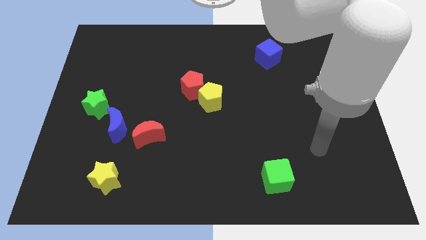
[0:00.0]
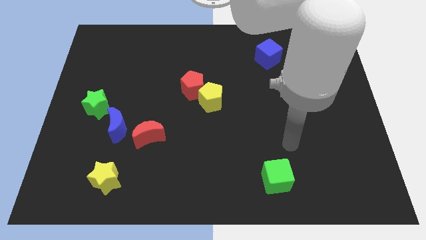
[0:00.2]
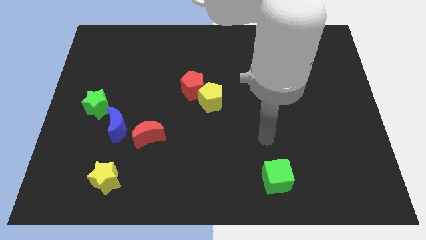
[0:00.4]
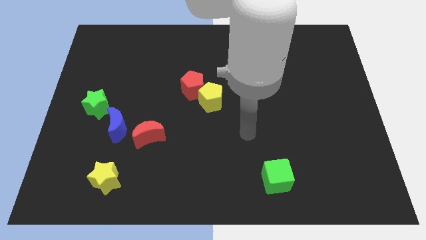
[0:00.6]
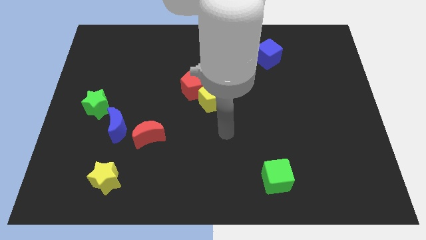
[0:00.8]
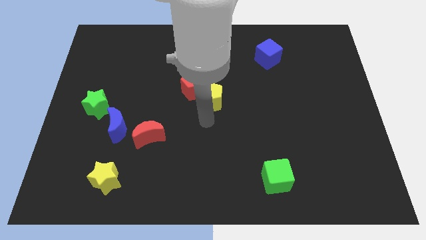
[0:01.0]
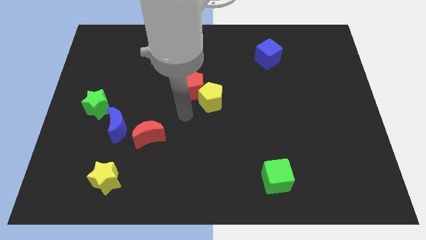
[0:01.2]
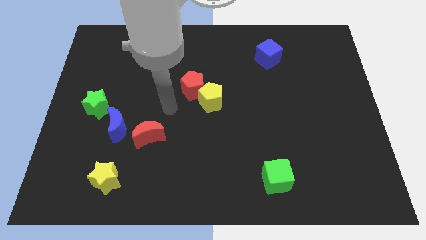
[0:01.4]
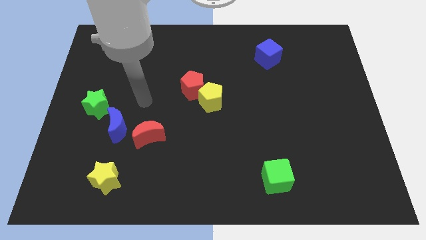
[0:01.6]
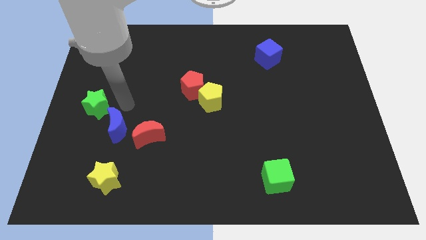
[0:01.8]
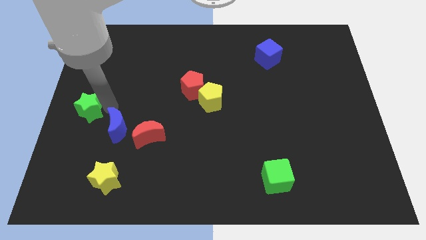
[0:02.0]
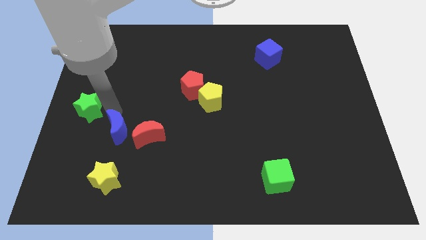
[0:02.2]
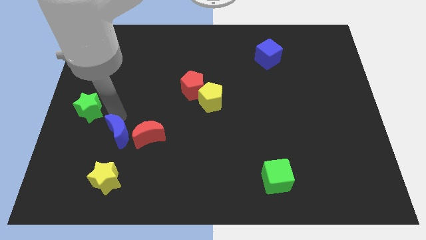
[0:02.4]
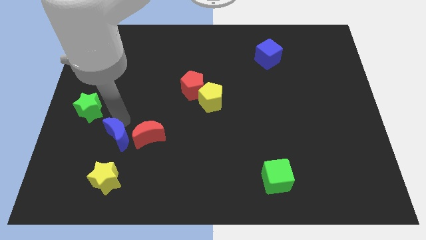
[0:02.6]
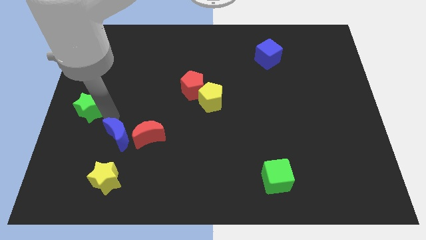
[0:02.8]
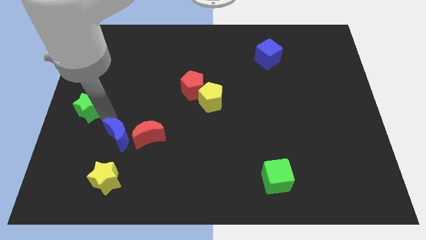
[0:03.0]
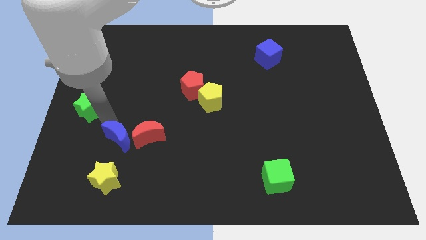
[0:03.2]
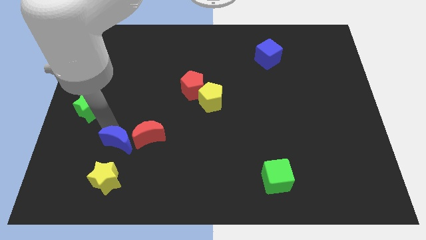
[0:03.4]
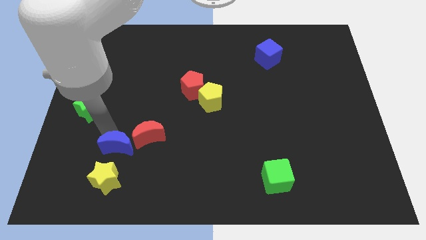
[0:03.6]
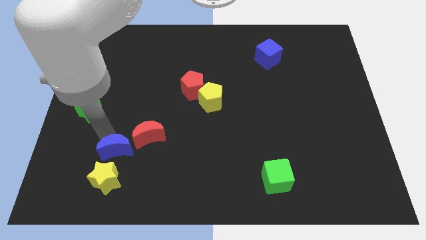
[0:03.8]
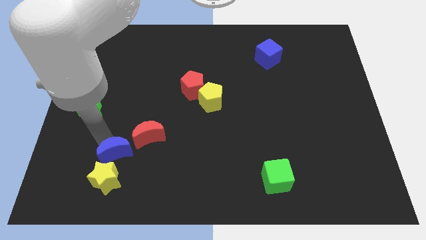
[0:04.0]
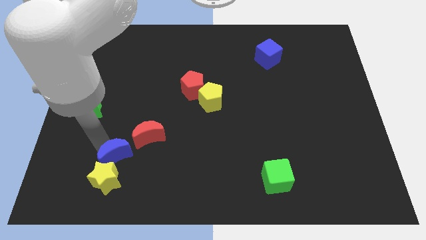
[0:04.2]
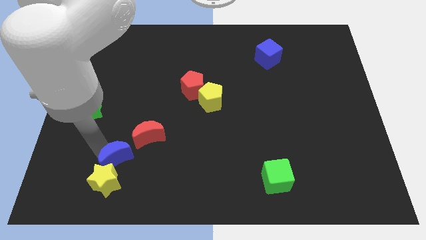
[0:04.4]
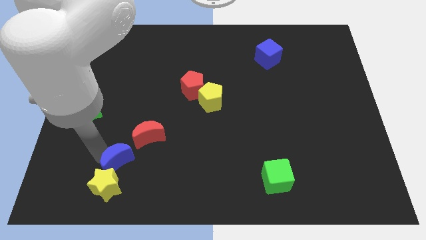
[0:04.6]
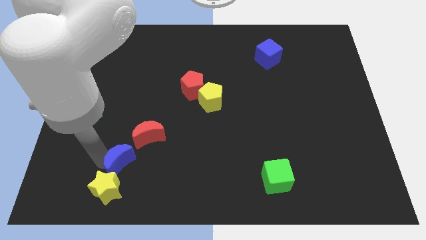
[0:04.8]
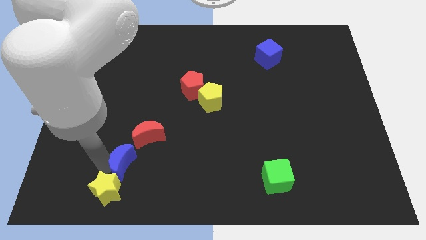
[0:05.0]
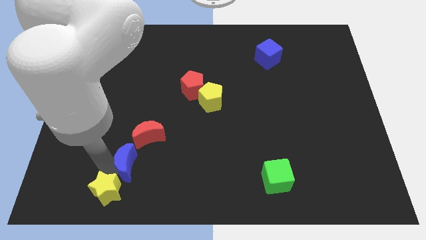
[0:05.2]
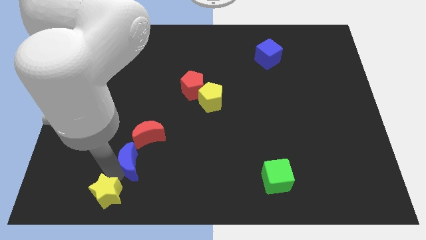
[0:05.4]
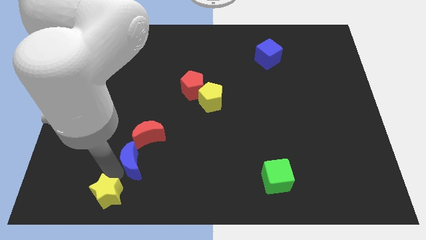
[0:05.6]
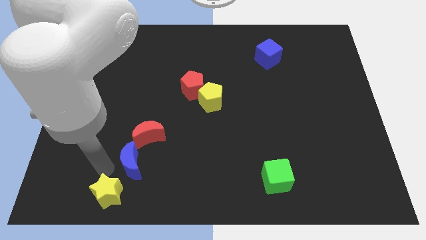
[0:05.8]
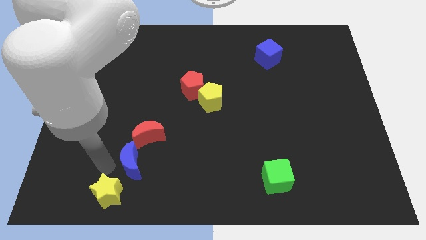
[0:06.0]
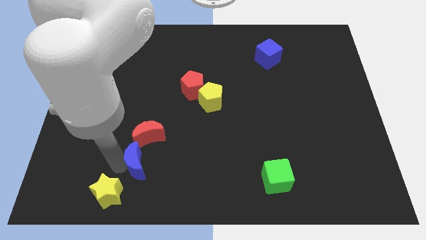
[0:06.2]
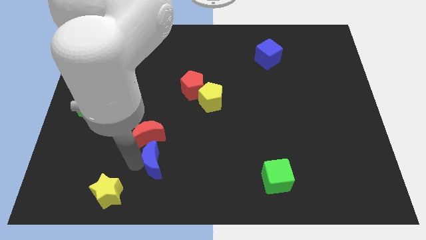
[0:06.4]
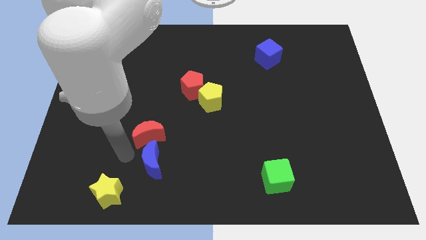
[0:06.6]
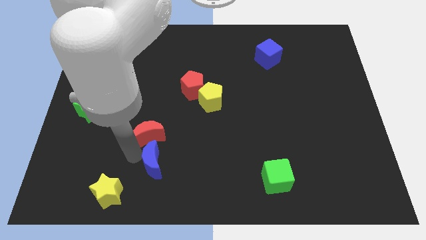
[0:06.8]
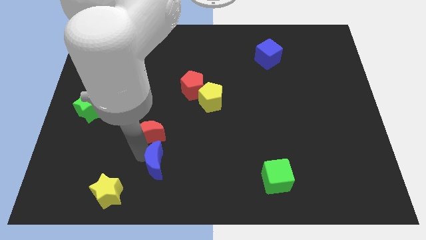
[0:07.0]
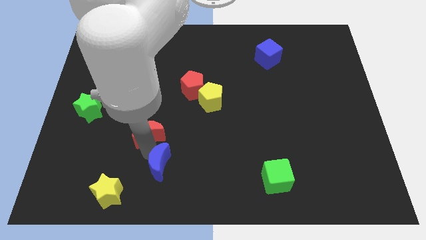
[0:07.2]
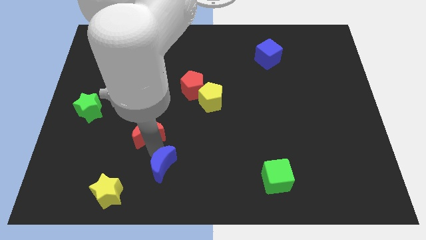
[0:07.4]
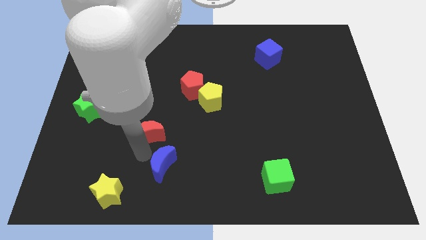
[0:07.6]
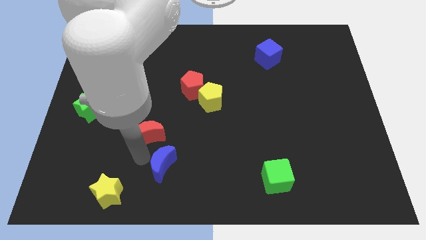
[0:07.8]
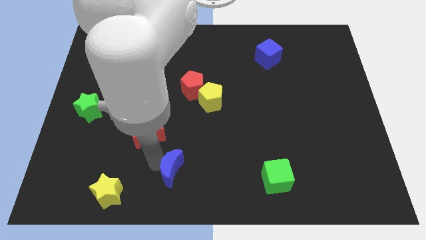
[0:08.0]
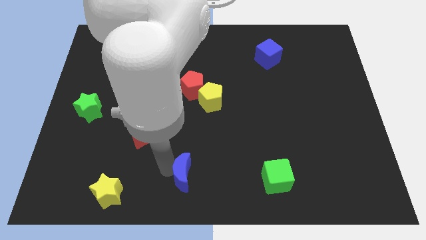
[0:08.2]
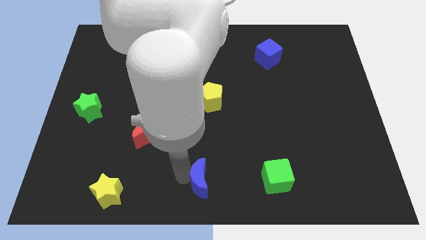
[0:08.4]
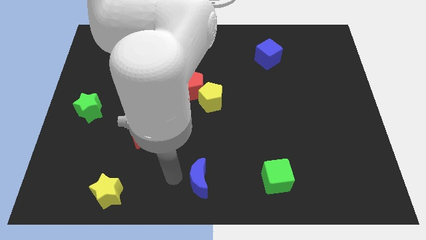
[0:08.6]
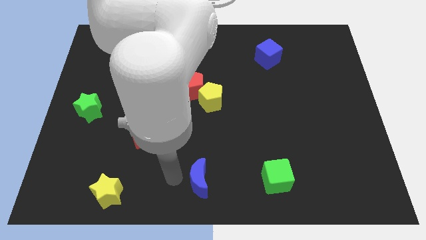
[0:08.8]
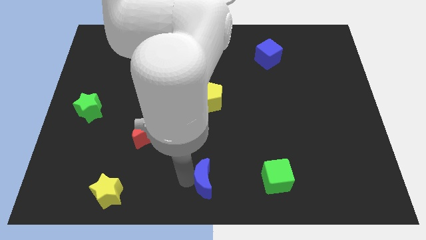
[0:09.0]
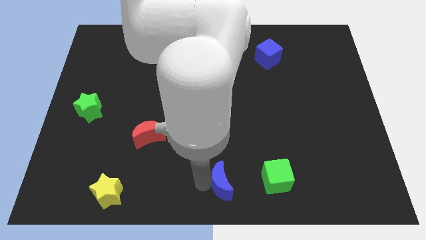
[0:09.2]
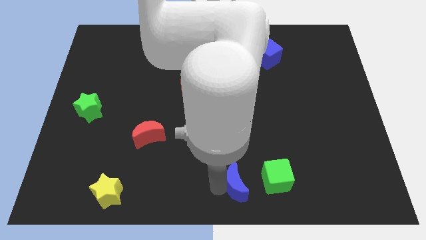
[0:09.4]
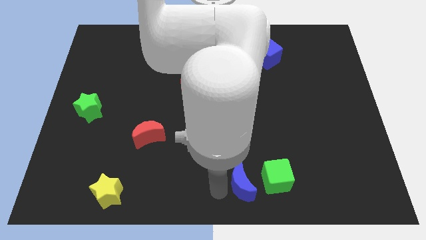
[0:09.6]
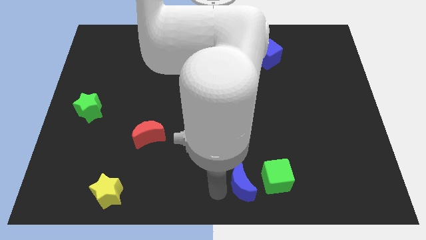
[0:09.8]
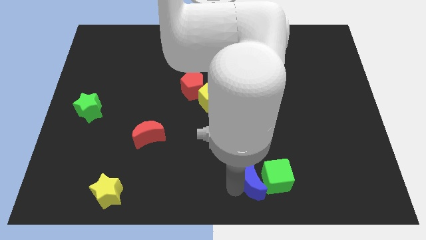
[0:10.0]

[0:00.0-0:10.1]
push the blue moon towards the green cube

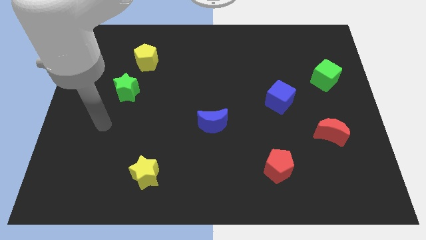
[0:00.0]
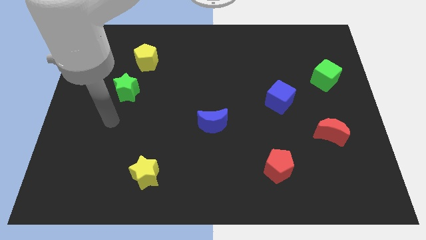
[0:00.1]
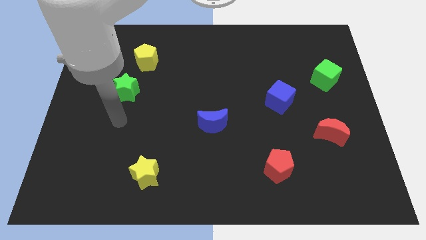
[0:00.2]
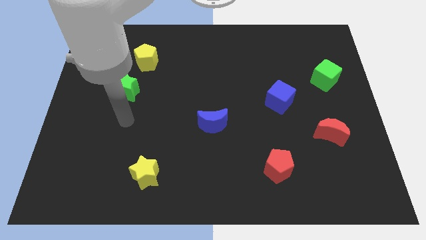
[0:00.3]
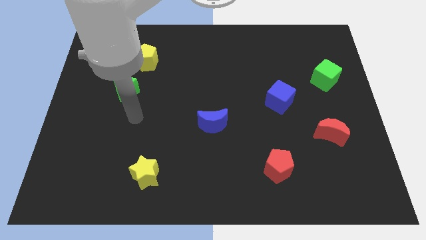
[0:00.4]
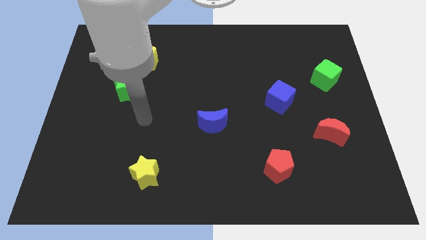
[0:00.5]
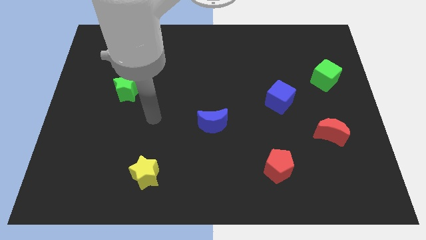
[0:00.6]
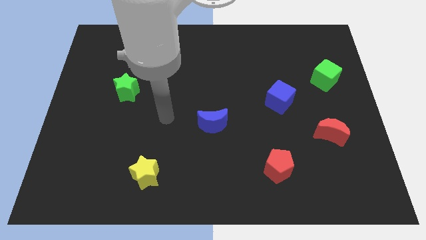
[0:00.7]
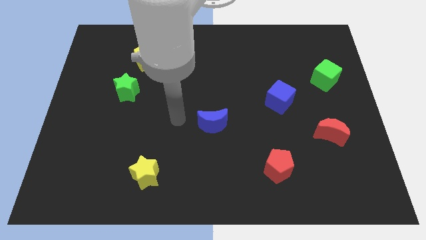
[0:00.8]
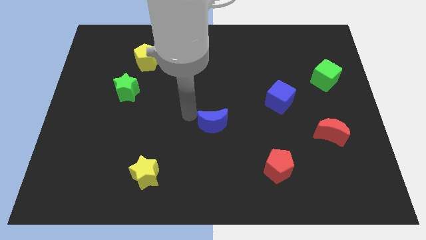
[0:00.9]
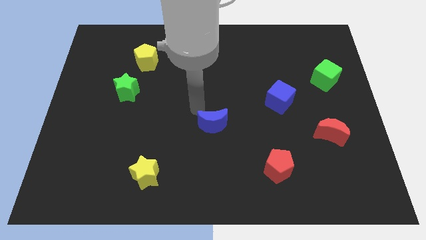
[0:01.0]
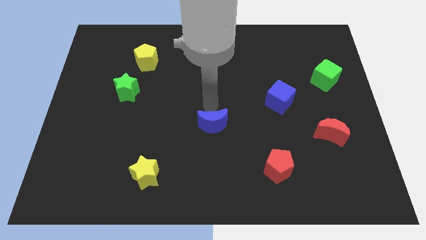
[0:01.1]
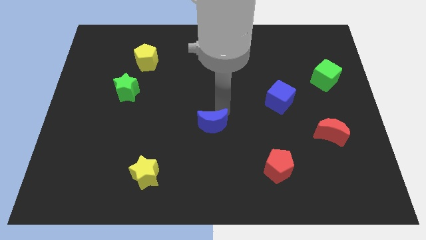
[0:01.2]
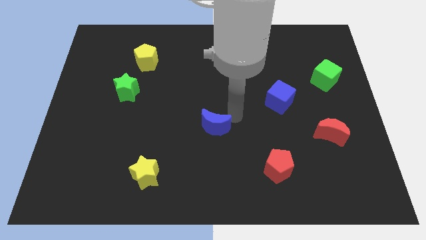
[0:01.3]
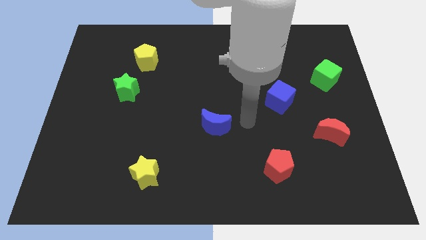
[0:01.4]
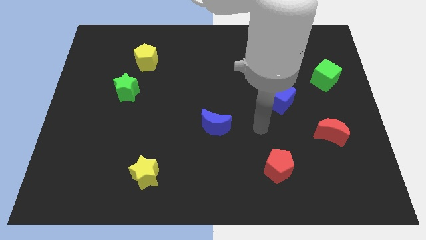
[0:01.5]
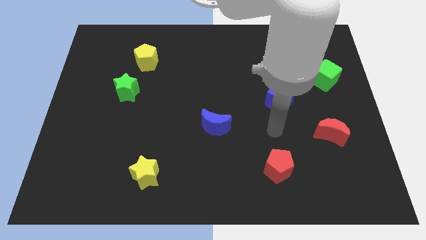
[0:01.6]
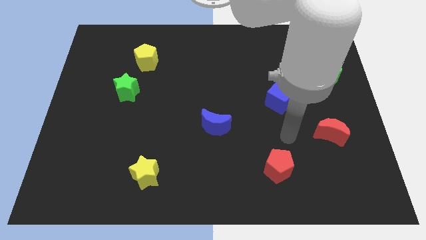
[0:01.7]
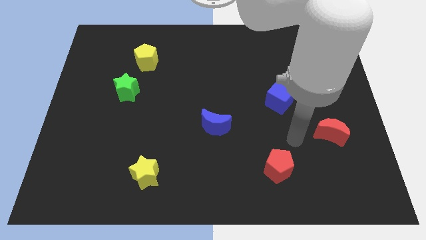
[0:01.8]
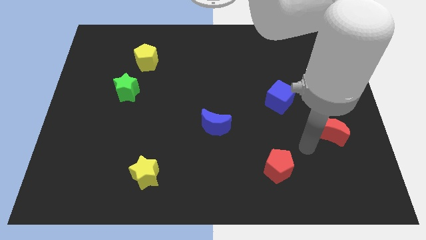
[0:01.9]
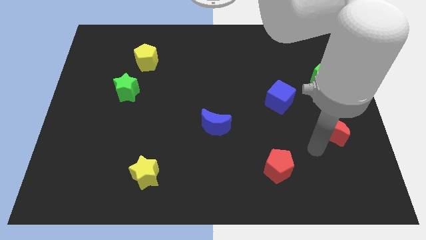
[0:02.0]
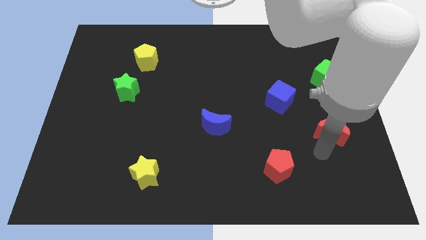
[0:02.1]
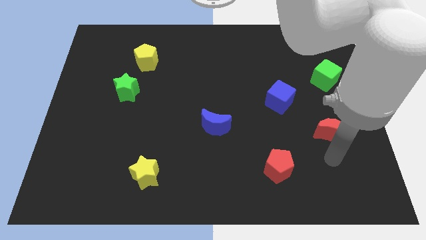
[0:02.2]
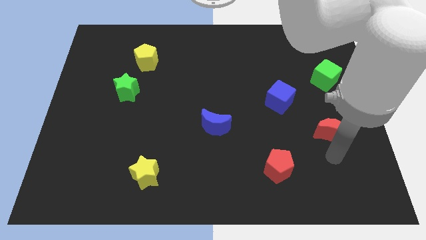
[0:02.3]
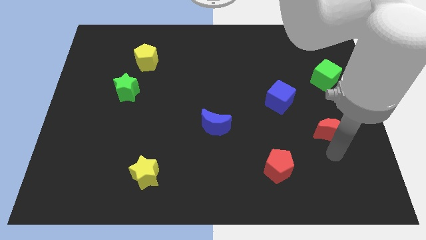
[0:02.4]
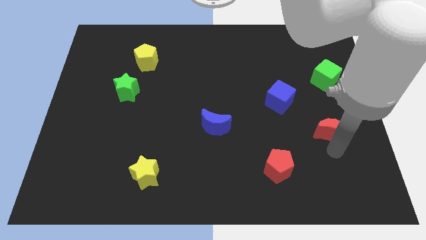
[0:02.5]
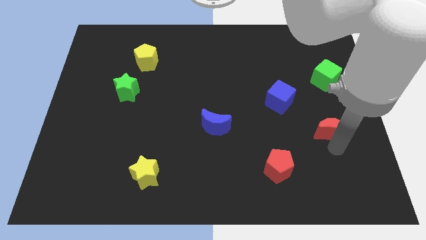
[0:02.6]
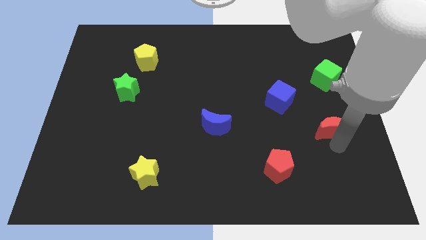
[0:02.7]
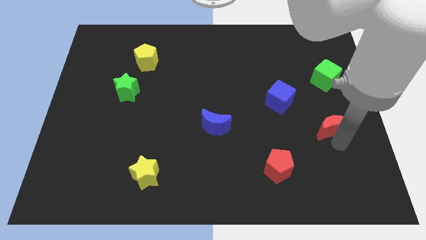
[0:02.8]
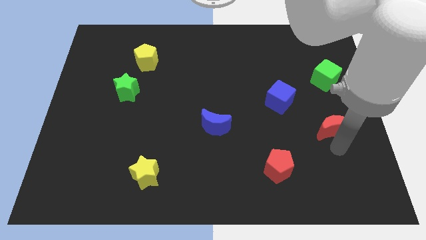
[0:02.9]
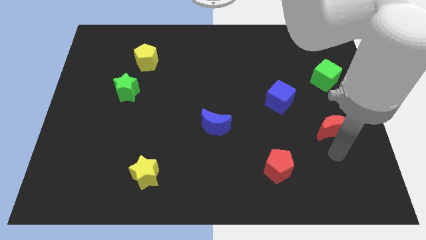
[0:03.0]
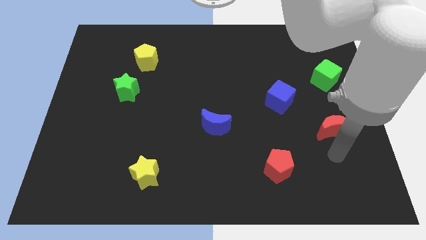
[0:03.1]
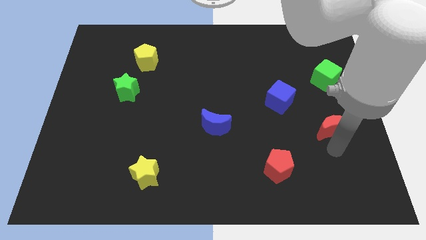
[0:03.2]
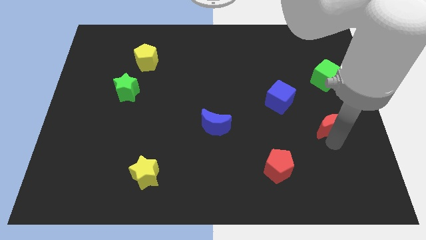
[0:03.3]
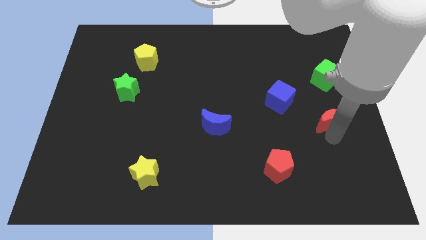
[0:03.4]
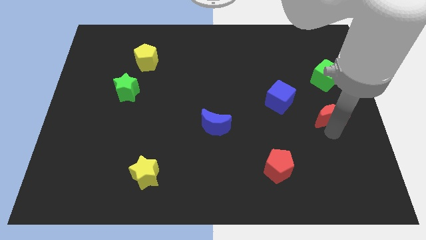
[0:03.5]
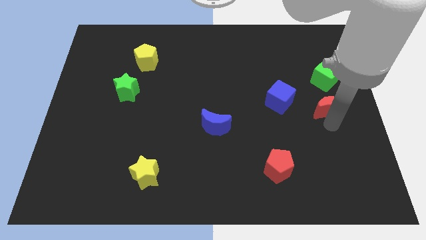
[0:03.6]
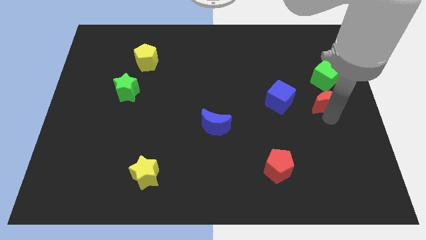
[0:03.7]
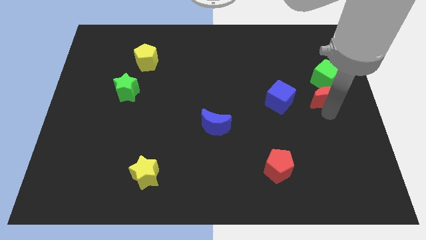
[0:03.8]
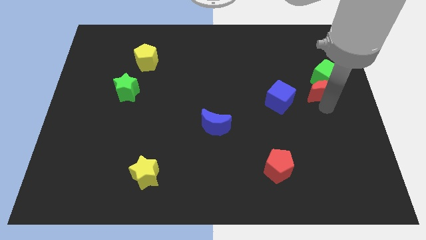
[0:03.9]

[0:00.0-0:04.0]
push the red moon close to the green cube
